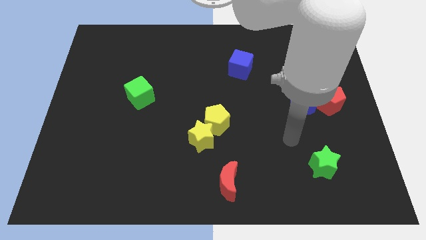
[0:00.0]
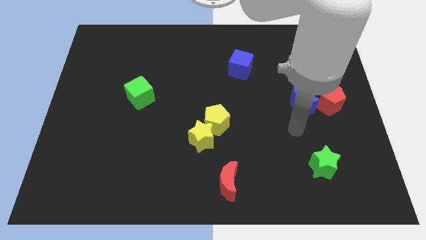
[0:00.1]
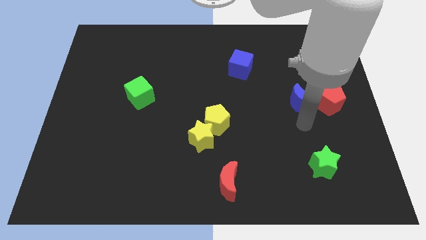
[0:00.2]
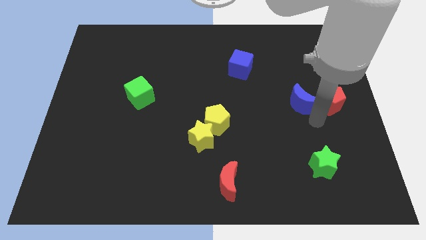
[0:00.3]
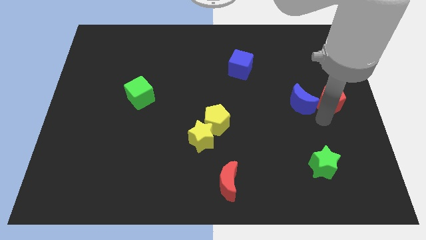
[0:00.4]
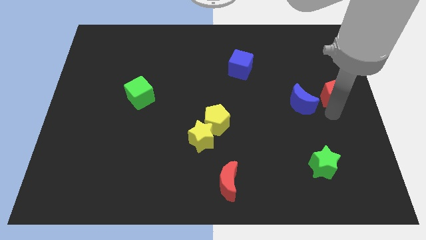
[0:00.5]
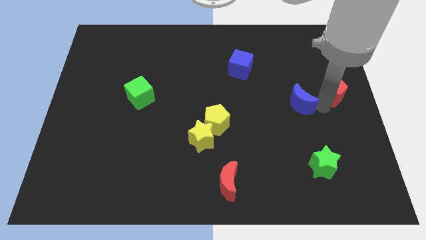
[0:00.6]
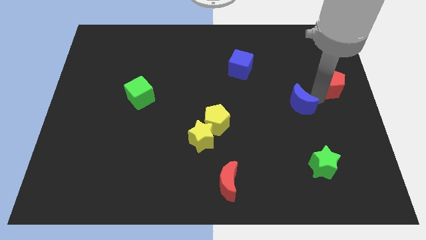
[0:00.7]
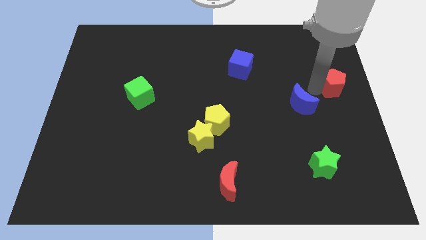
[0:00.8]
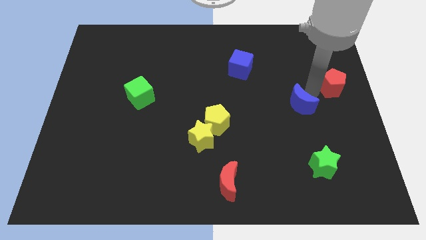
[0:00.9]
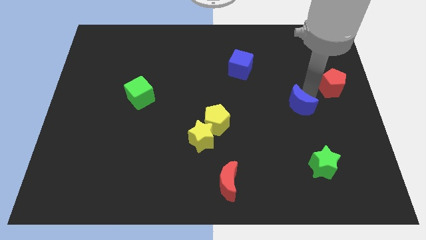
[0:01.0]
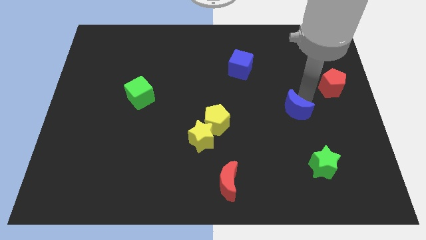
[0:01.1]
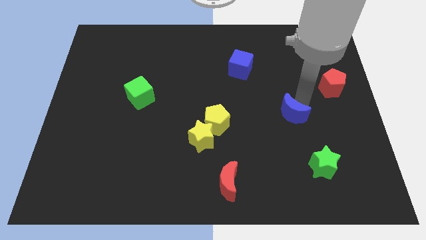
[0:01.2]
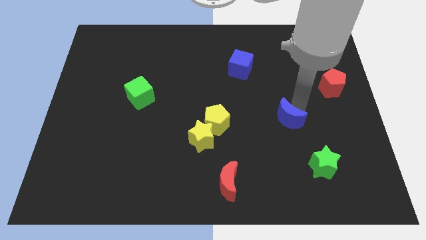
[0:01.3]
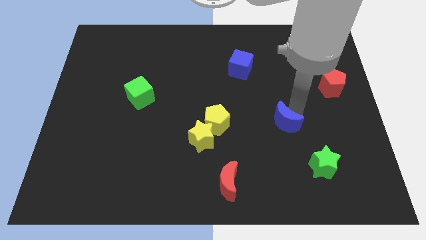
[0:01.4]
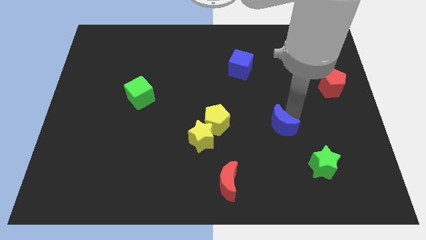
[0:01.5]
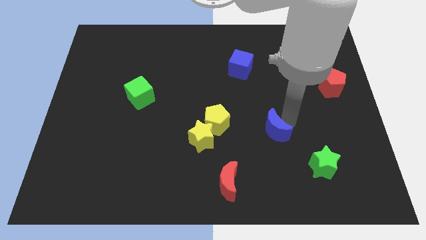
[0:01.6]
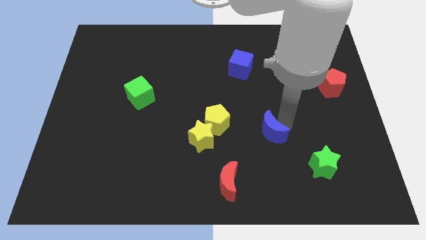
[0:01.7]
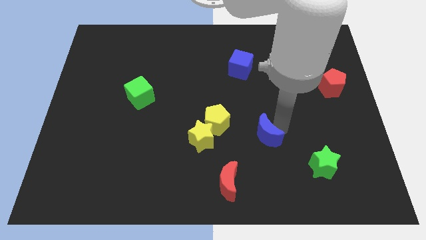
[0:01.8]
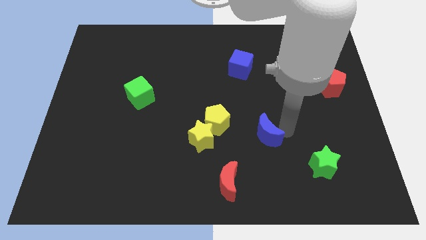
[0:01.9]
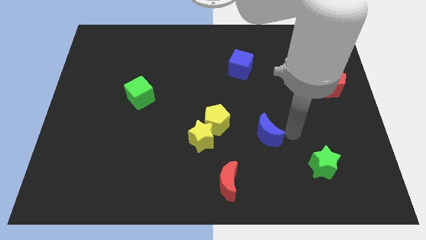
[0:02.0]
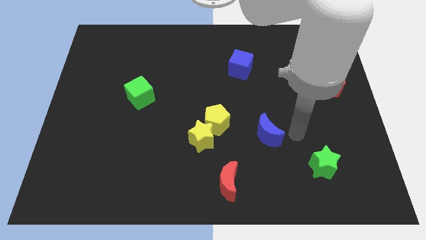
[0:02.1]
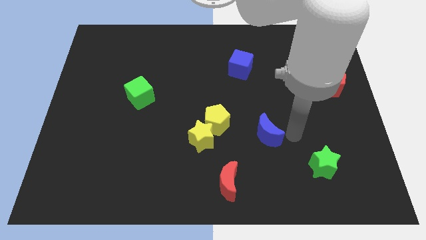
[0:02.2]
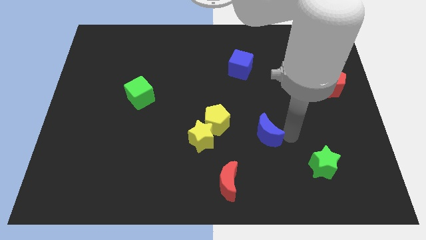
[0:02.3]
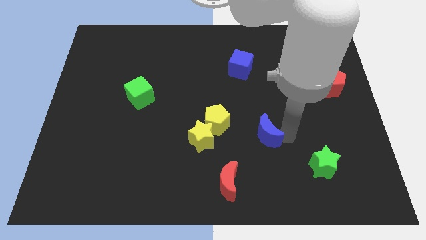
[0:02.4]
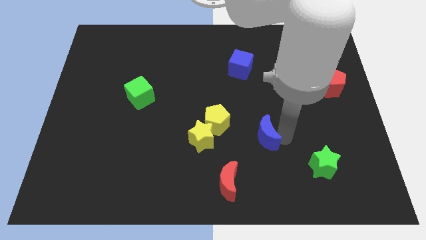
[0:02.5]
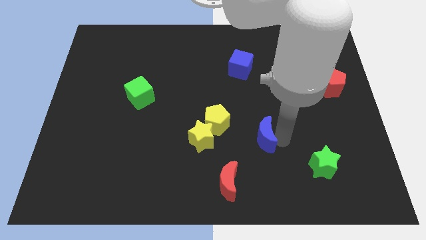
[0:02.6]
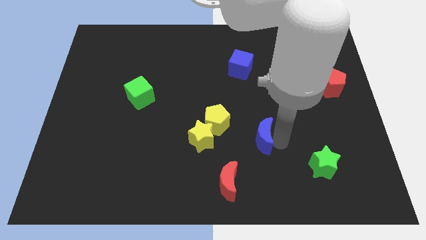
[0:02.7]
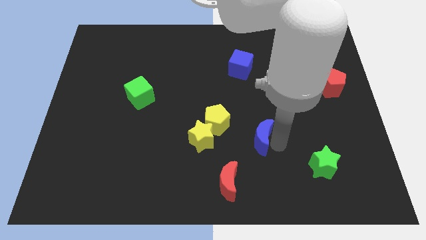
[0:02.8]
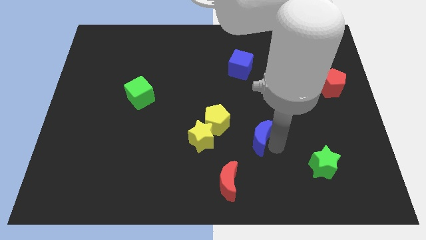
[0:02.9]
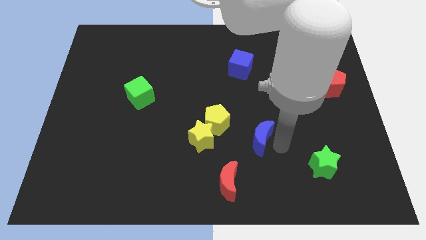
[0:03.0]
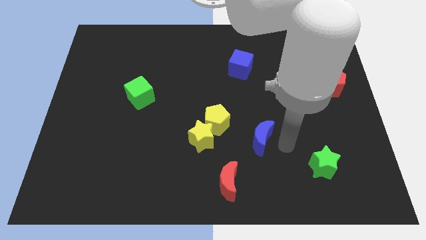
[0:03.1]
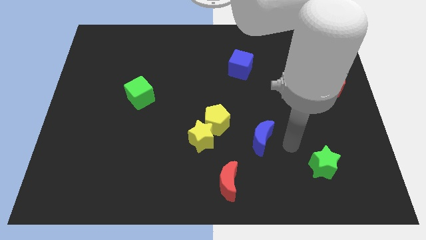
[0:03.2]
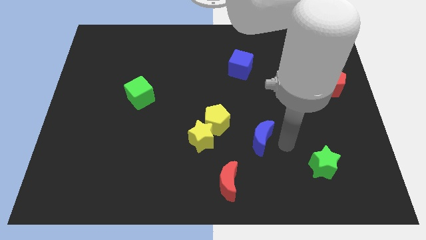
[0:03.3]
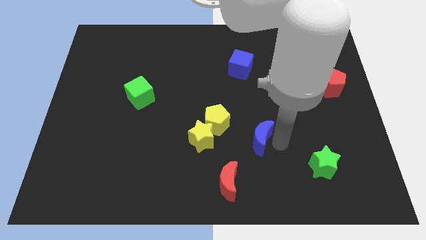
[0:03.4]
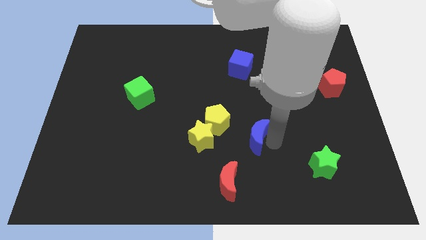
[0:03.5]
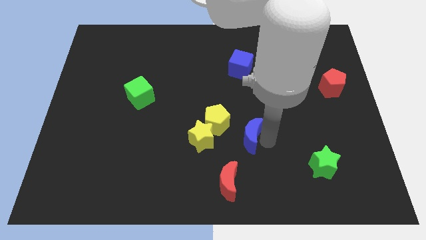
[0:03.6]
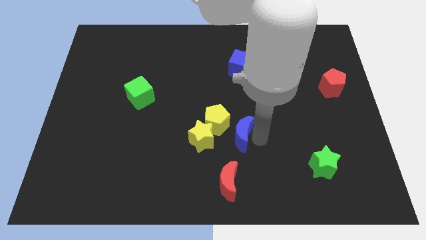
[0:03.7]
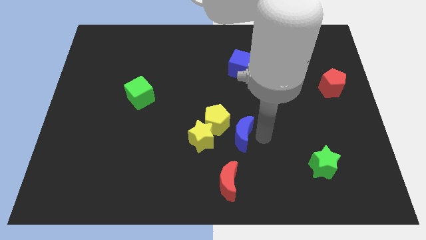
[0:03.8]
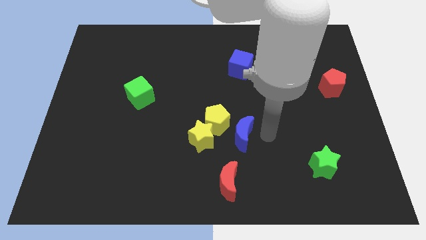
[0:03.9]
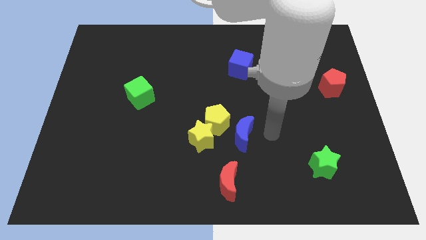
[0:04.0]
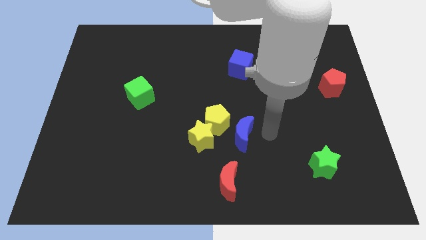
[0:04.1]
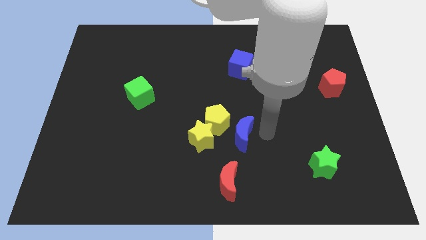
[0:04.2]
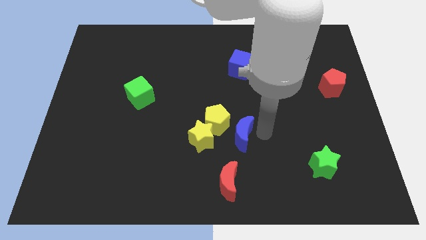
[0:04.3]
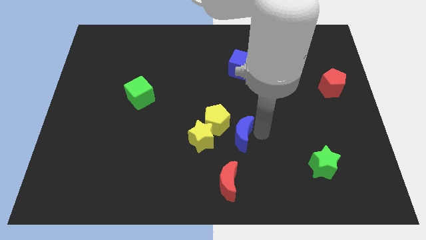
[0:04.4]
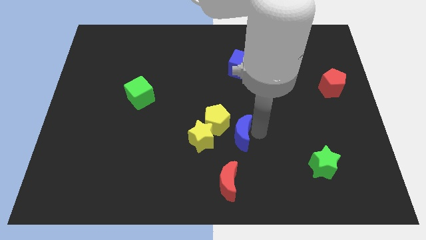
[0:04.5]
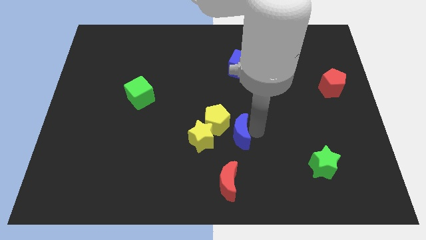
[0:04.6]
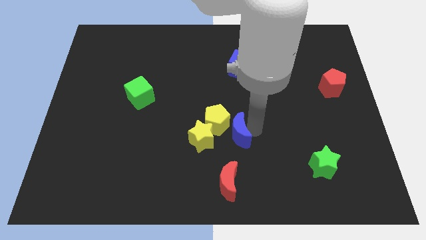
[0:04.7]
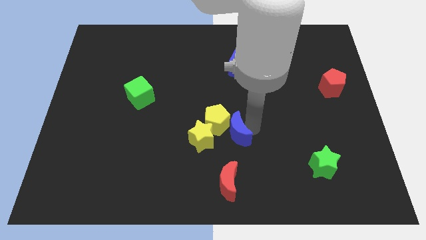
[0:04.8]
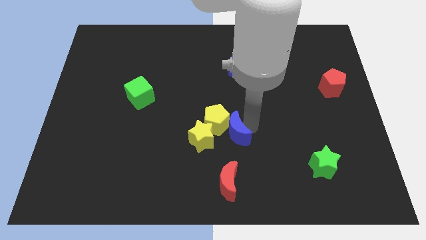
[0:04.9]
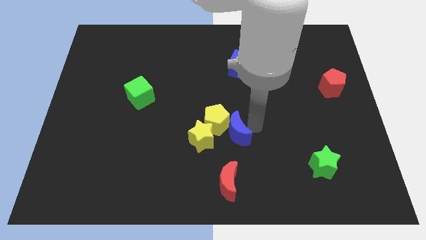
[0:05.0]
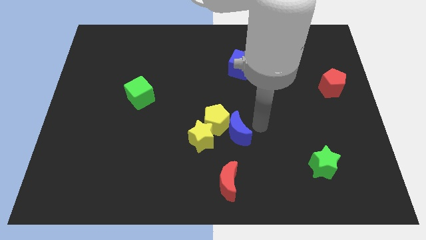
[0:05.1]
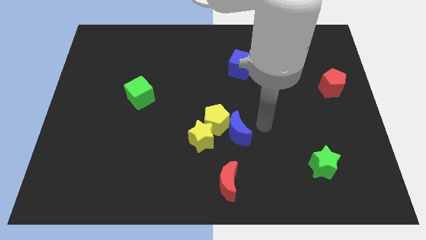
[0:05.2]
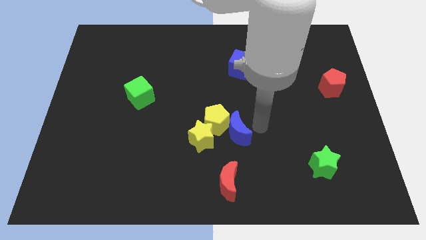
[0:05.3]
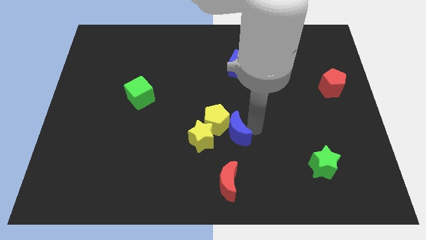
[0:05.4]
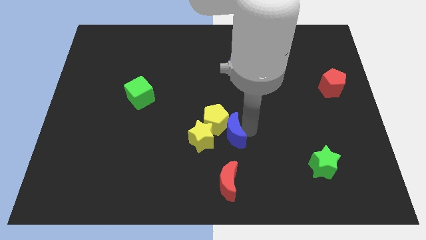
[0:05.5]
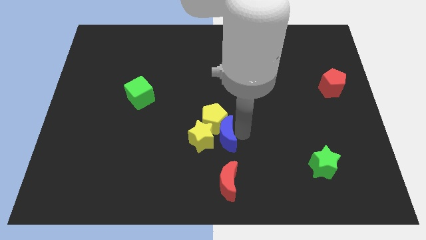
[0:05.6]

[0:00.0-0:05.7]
move the blue moon close to the yellow star

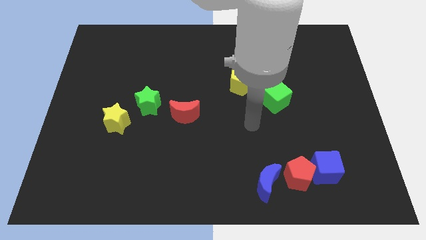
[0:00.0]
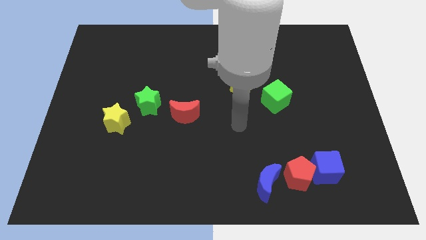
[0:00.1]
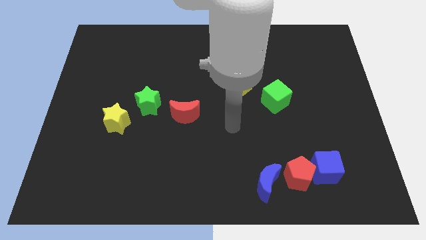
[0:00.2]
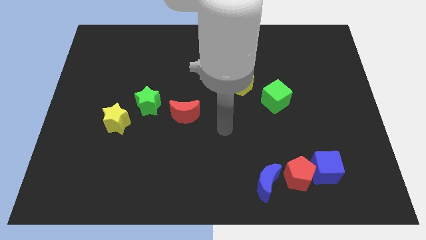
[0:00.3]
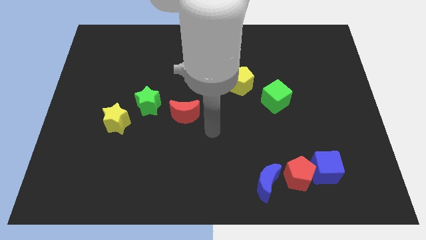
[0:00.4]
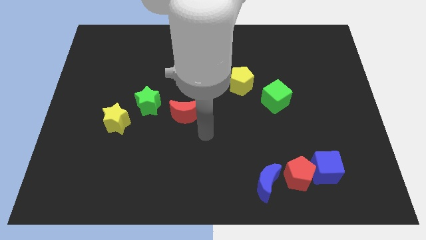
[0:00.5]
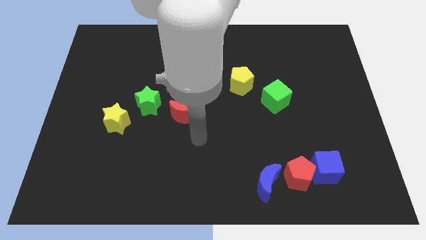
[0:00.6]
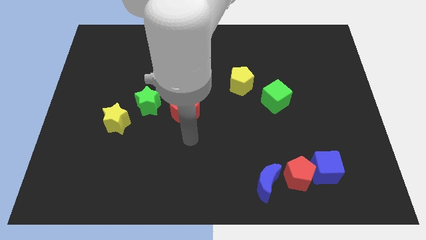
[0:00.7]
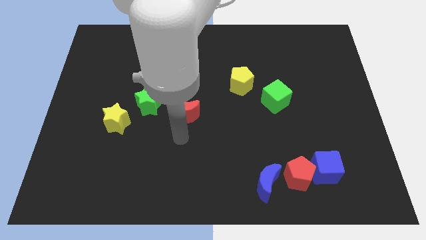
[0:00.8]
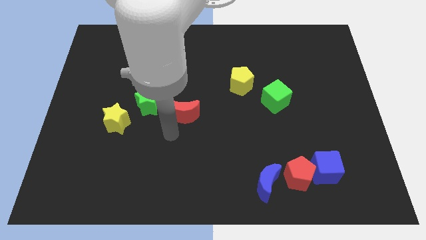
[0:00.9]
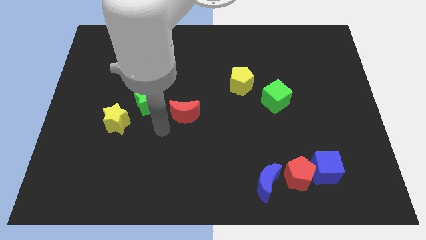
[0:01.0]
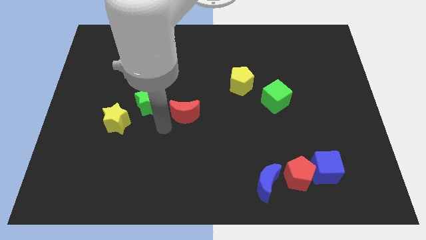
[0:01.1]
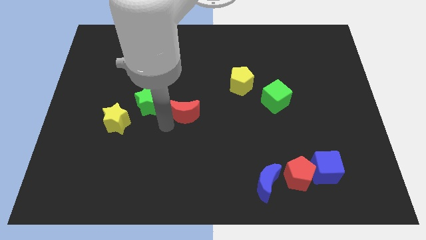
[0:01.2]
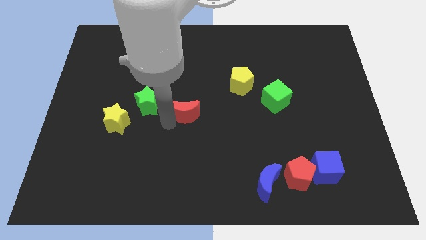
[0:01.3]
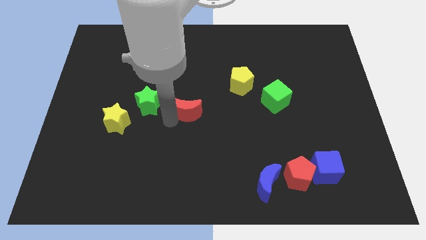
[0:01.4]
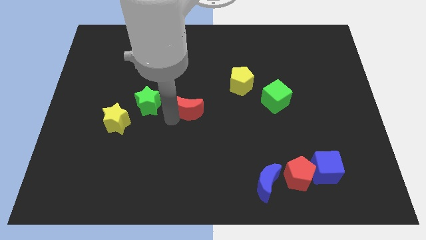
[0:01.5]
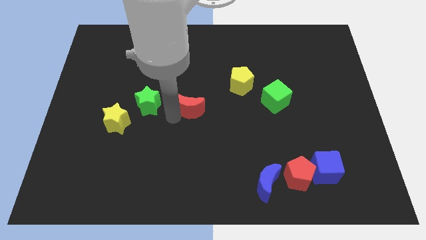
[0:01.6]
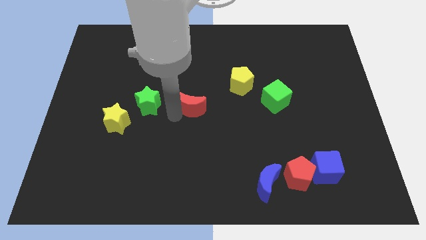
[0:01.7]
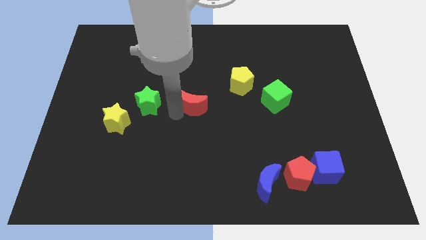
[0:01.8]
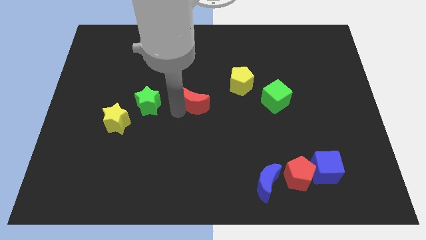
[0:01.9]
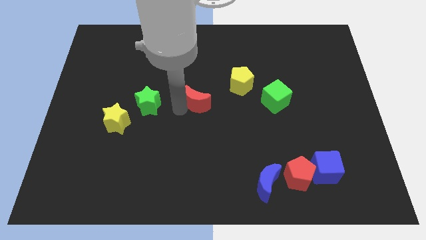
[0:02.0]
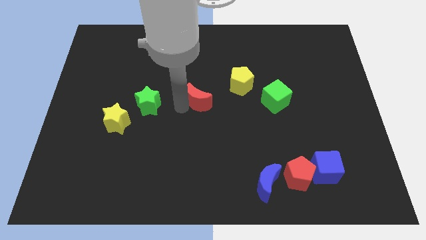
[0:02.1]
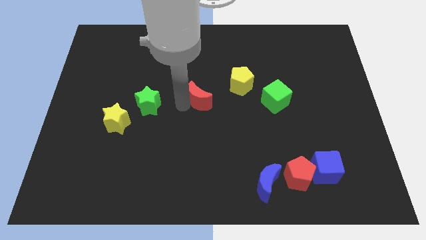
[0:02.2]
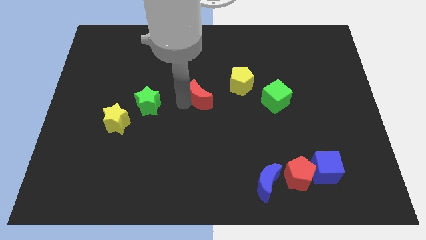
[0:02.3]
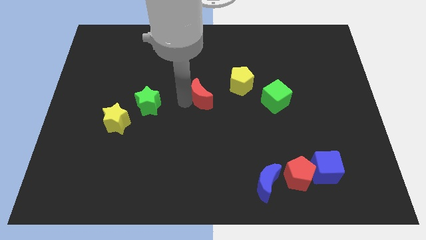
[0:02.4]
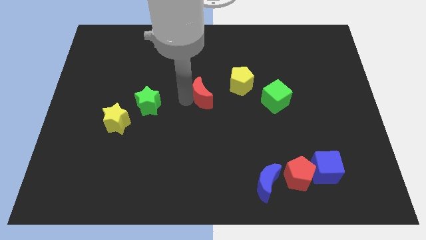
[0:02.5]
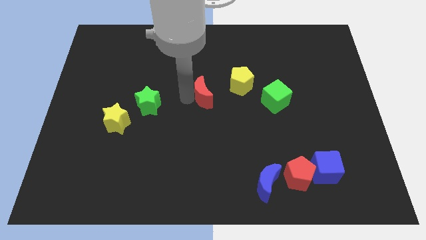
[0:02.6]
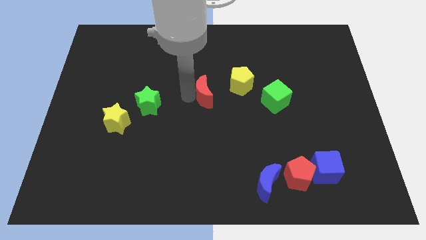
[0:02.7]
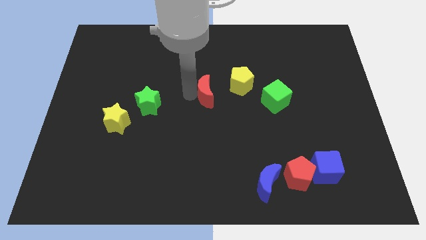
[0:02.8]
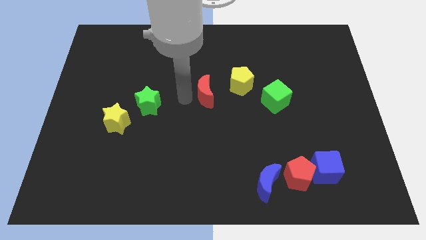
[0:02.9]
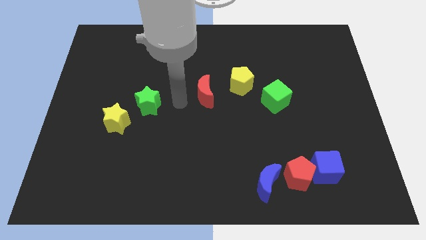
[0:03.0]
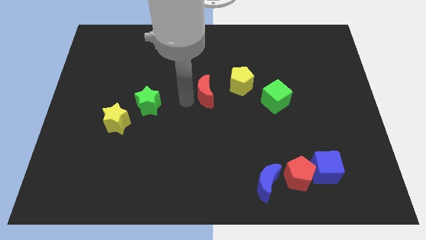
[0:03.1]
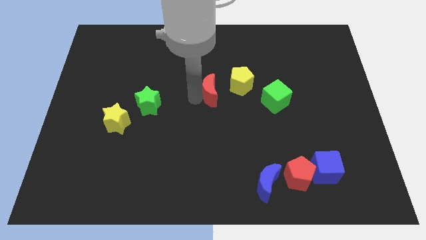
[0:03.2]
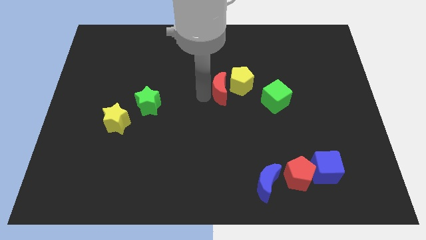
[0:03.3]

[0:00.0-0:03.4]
push the red moon towards the yellow pentagon
